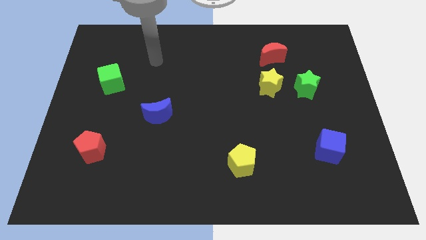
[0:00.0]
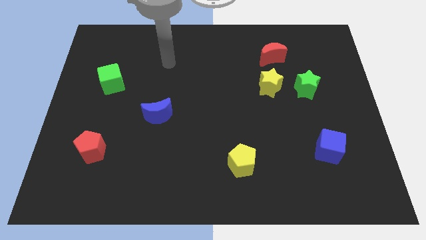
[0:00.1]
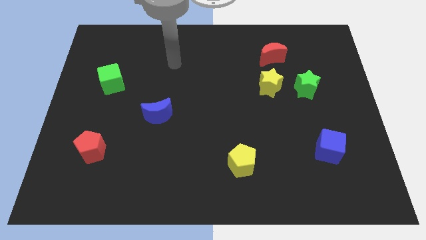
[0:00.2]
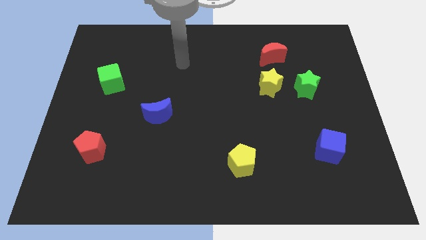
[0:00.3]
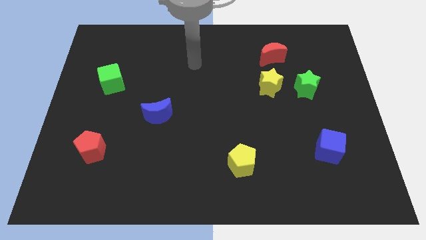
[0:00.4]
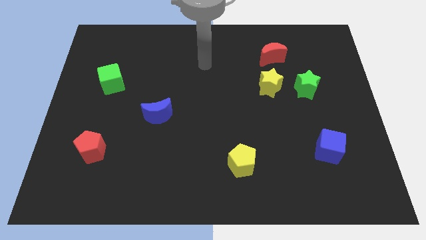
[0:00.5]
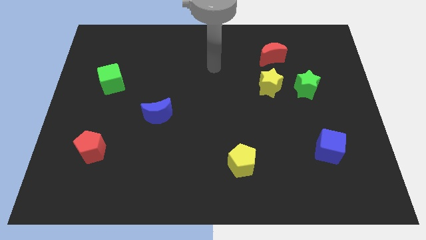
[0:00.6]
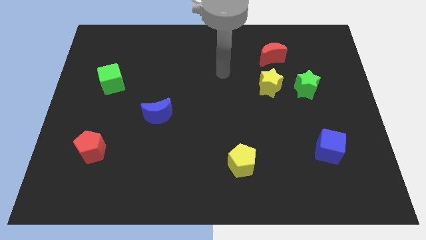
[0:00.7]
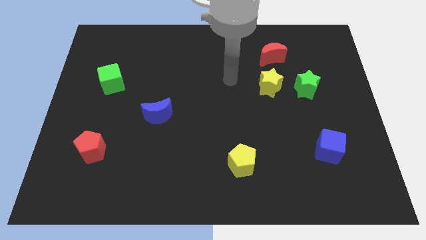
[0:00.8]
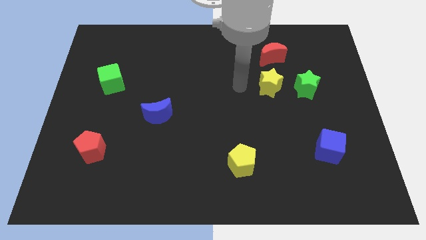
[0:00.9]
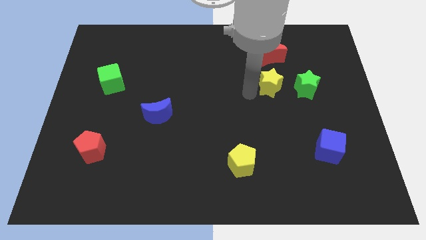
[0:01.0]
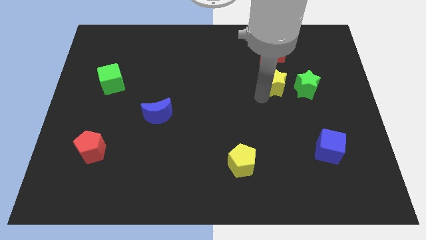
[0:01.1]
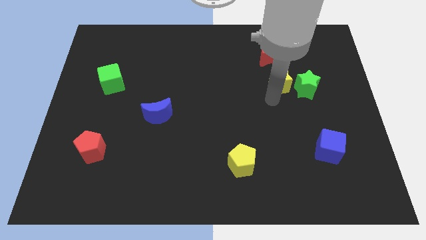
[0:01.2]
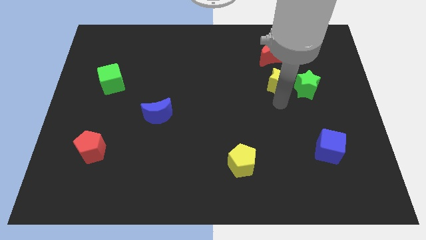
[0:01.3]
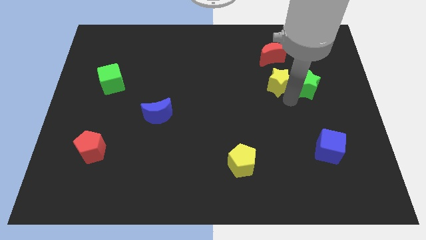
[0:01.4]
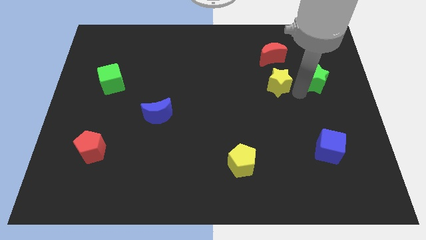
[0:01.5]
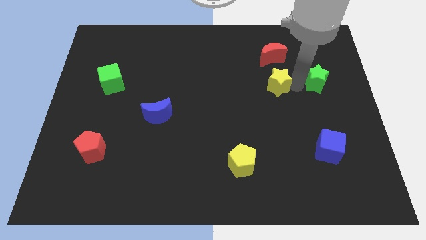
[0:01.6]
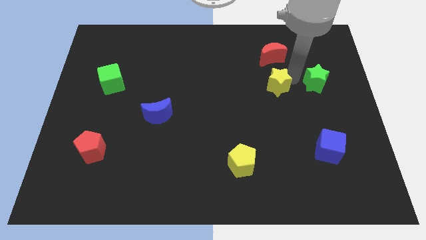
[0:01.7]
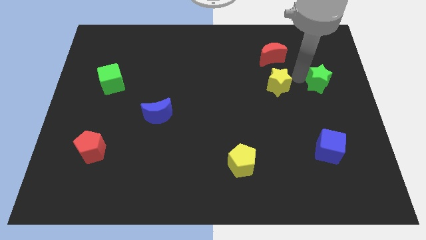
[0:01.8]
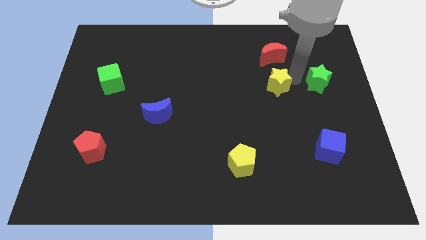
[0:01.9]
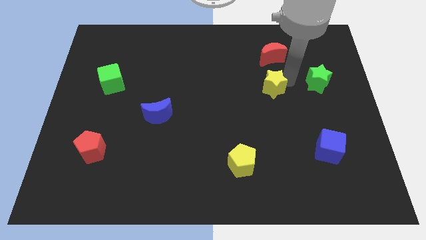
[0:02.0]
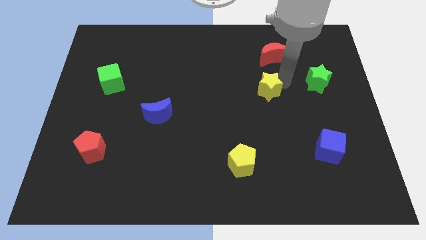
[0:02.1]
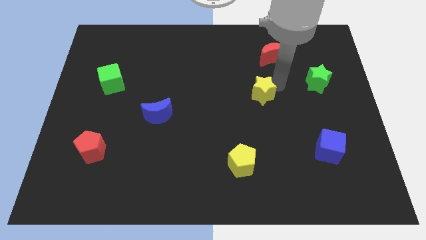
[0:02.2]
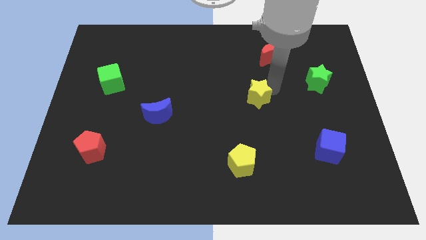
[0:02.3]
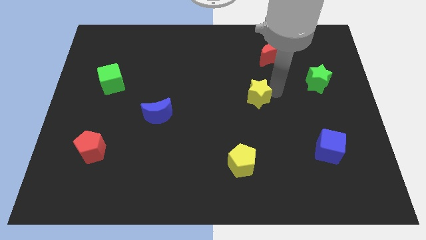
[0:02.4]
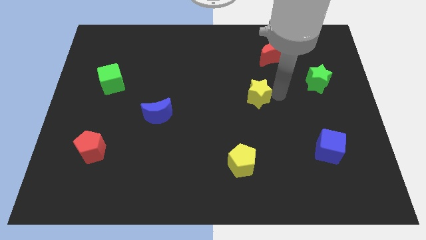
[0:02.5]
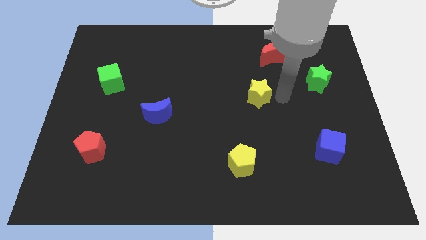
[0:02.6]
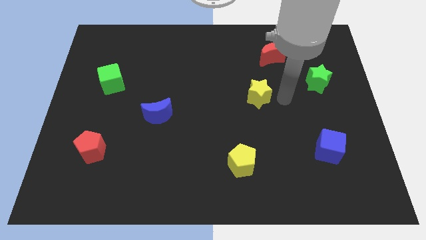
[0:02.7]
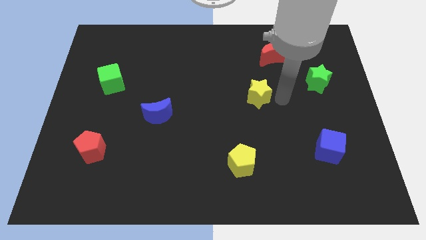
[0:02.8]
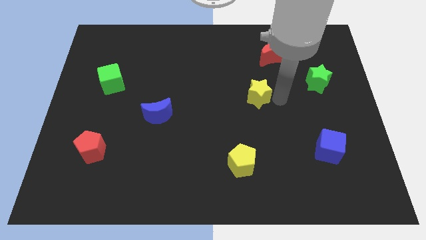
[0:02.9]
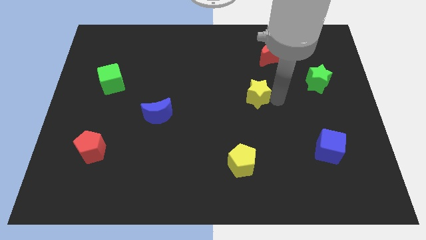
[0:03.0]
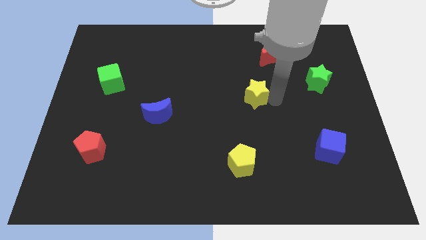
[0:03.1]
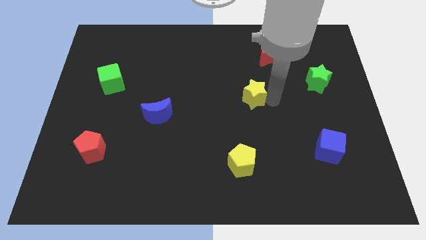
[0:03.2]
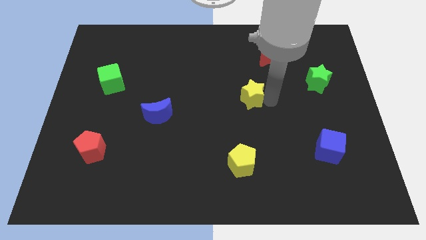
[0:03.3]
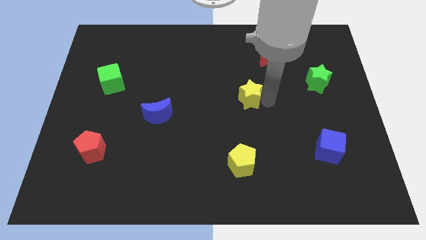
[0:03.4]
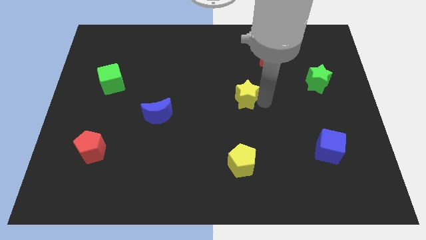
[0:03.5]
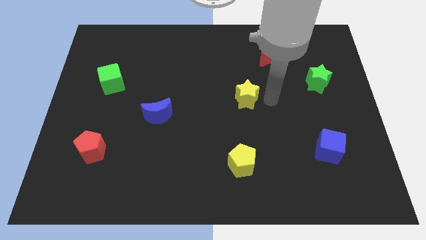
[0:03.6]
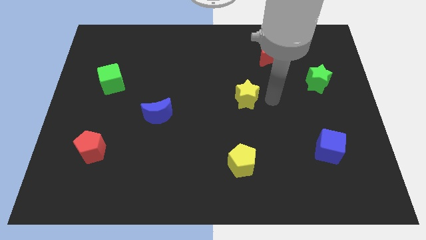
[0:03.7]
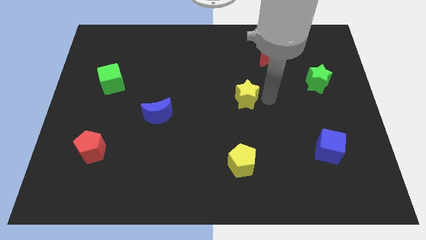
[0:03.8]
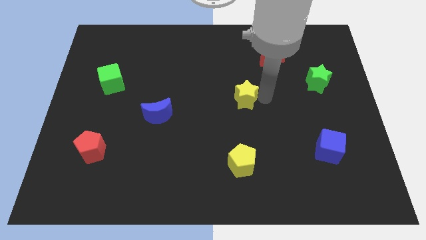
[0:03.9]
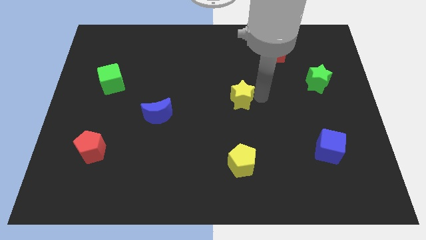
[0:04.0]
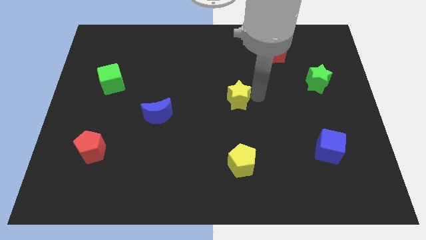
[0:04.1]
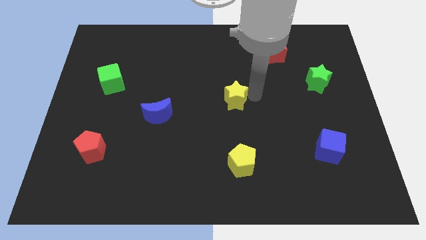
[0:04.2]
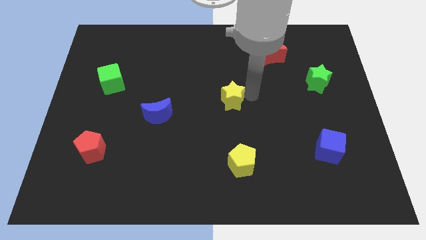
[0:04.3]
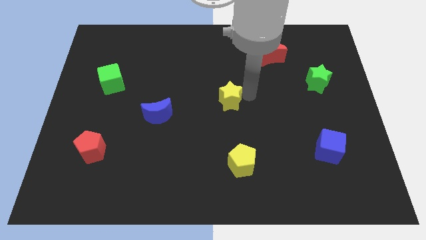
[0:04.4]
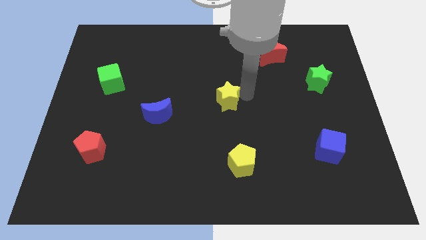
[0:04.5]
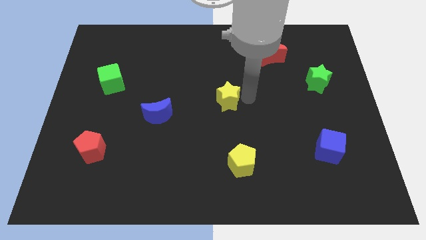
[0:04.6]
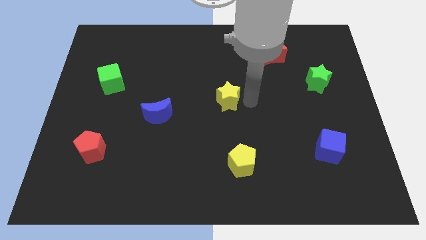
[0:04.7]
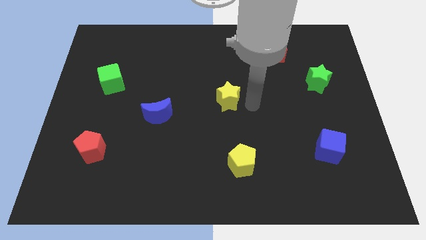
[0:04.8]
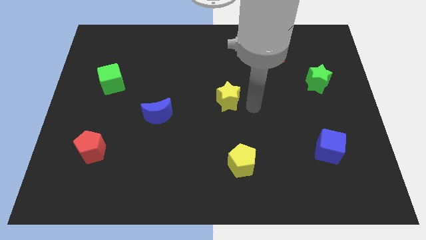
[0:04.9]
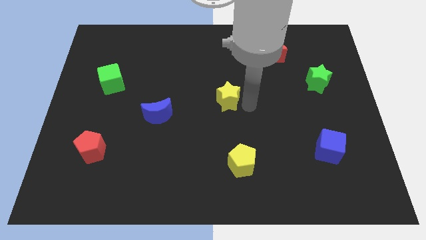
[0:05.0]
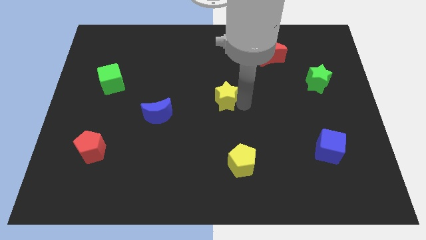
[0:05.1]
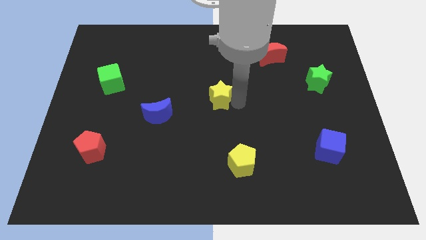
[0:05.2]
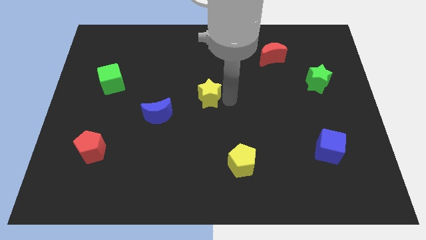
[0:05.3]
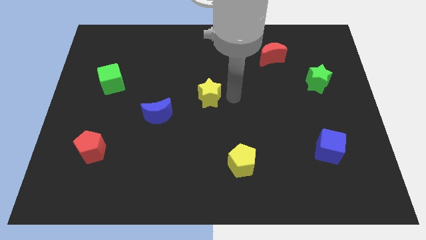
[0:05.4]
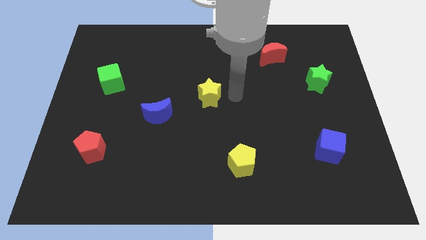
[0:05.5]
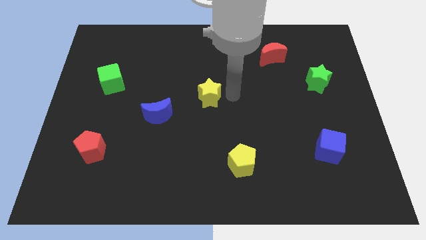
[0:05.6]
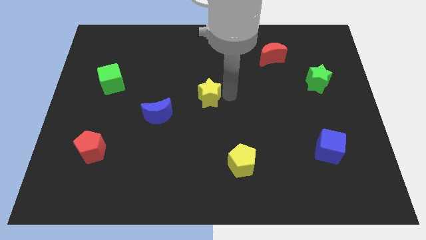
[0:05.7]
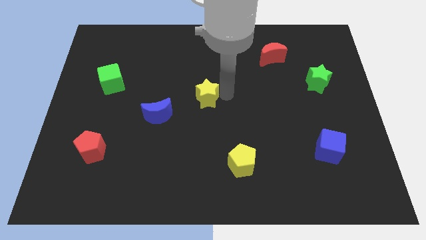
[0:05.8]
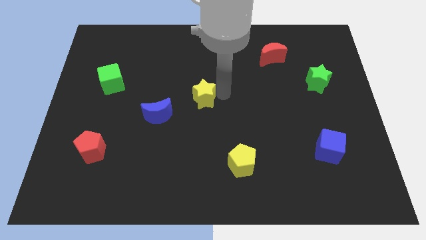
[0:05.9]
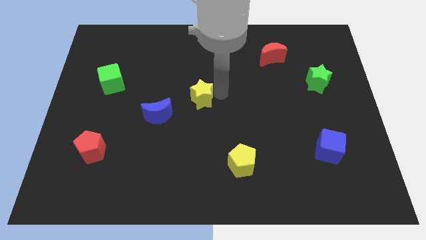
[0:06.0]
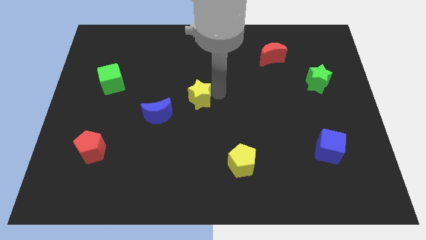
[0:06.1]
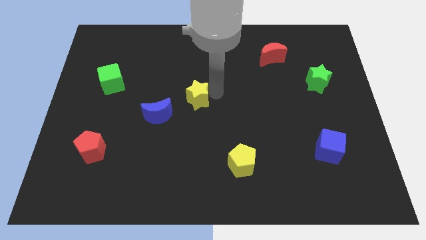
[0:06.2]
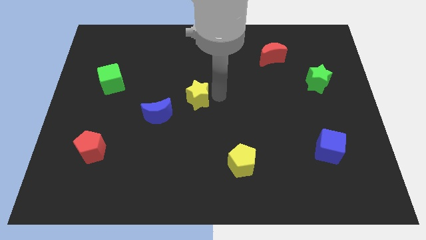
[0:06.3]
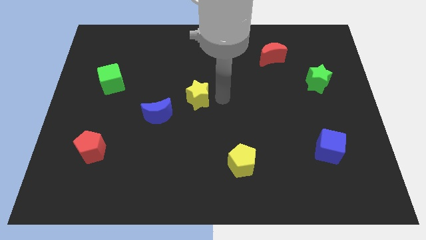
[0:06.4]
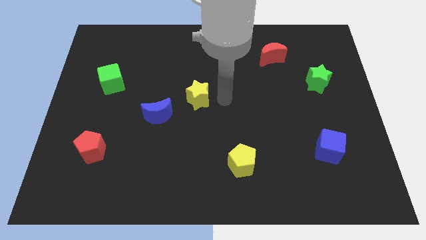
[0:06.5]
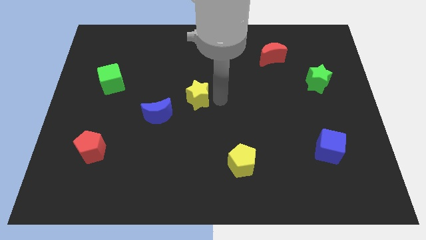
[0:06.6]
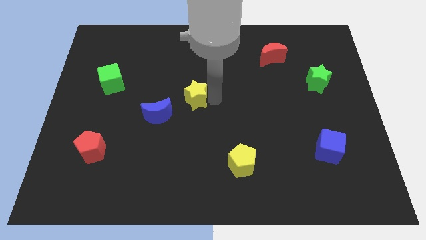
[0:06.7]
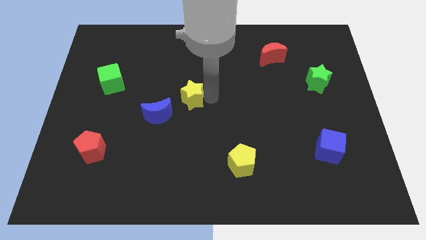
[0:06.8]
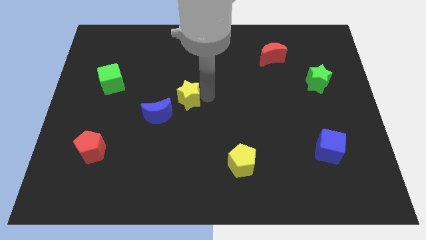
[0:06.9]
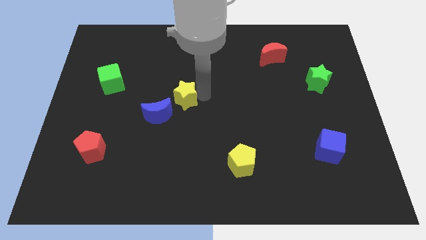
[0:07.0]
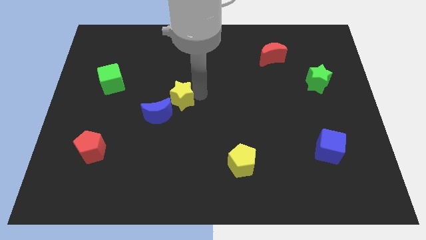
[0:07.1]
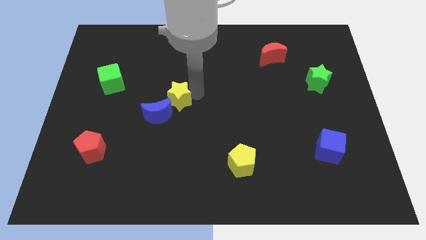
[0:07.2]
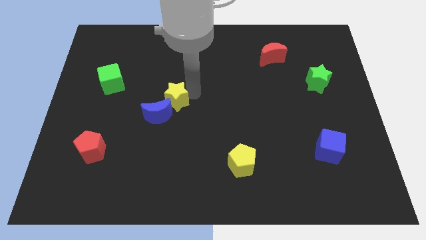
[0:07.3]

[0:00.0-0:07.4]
push the yellow star towards the blue moon
